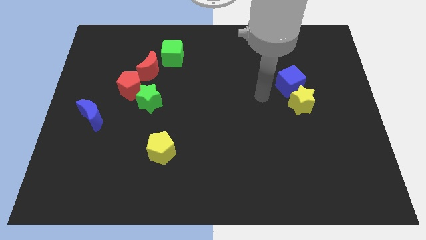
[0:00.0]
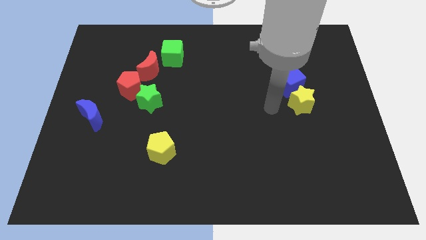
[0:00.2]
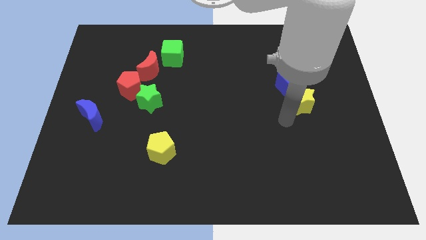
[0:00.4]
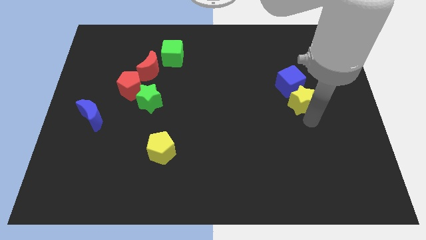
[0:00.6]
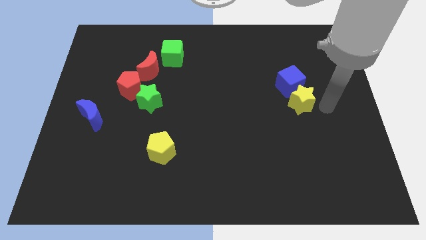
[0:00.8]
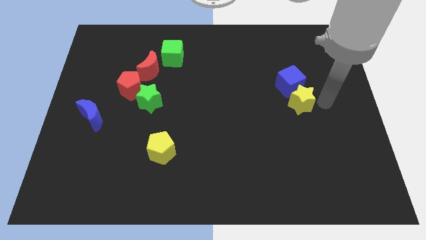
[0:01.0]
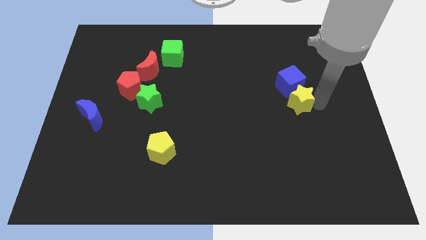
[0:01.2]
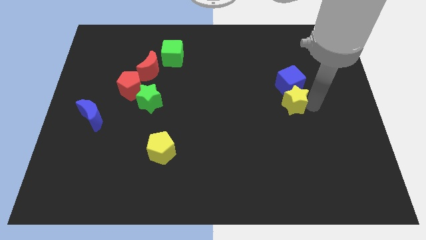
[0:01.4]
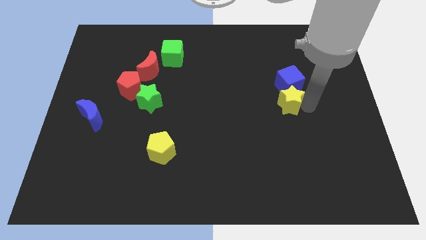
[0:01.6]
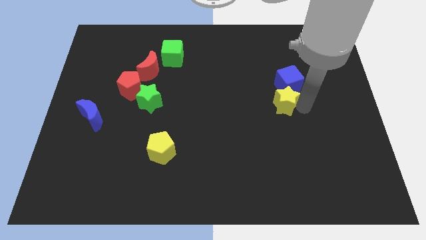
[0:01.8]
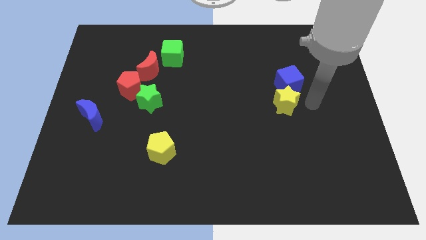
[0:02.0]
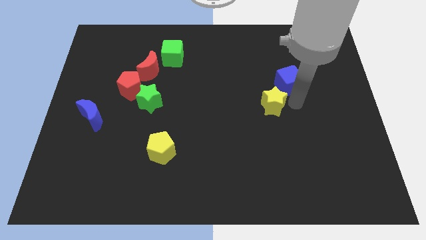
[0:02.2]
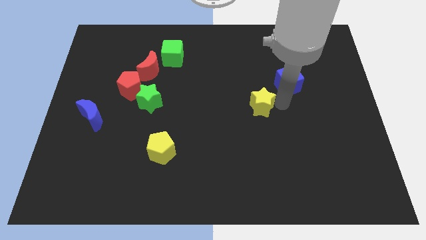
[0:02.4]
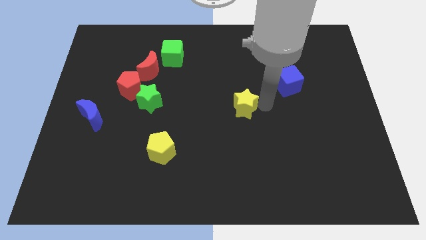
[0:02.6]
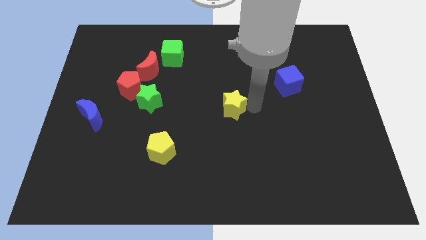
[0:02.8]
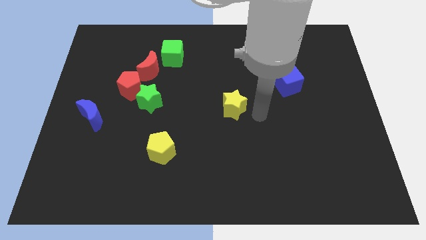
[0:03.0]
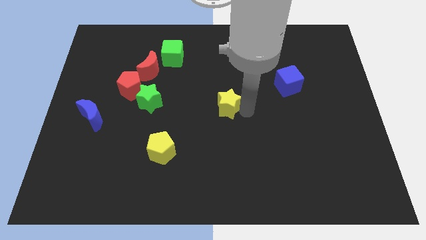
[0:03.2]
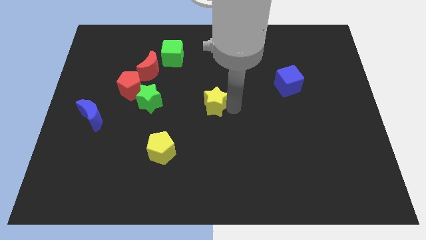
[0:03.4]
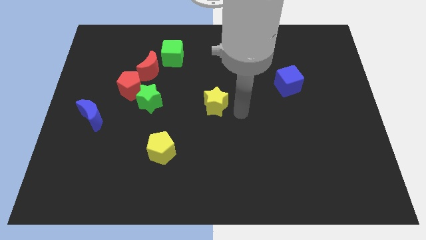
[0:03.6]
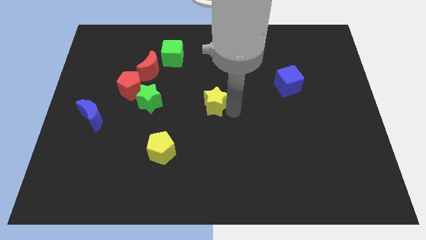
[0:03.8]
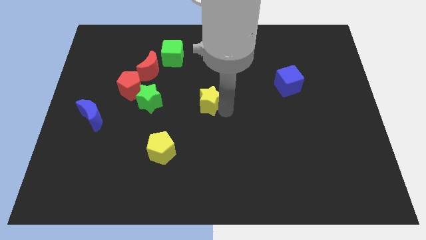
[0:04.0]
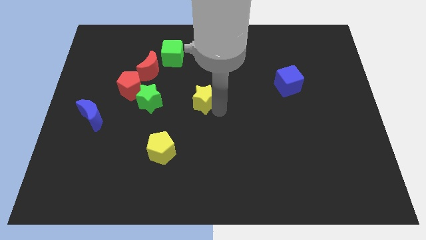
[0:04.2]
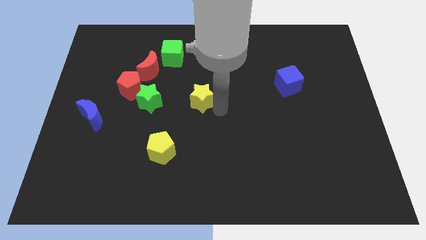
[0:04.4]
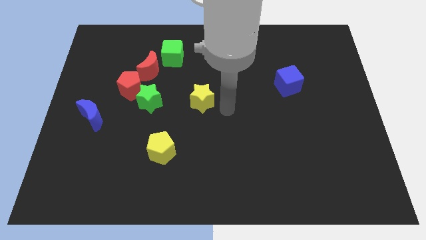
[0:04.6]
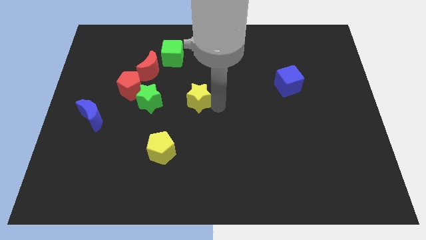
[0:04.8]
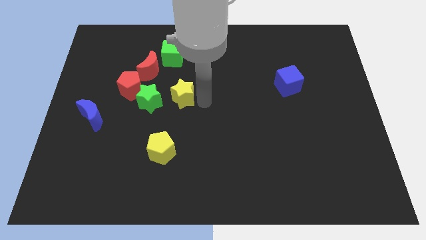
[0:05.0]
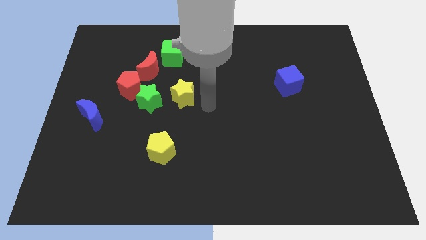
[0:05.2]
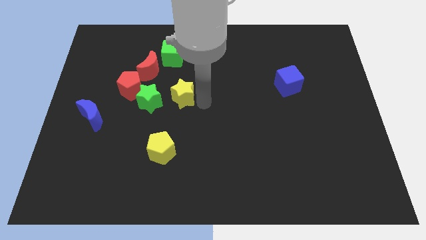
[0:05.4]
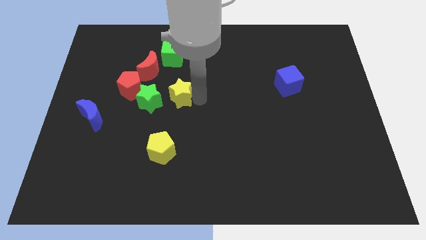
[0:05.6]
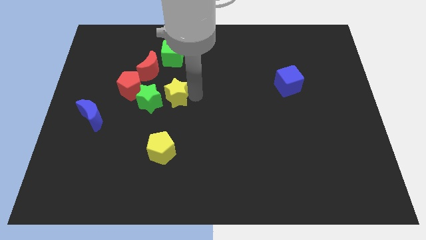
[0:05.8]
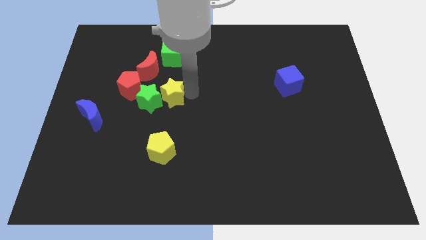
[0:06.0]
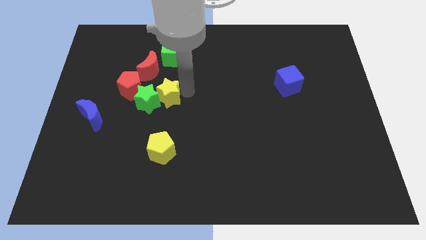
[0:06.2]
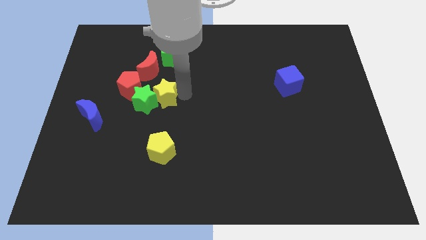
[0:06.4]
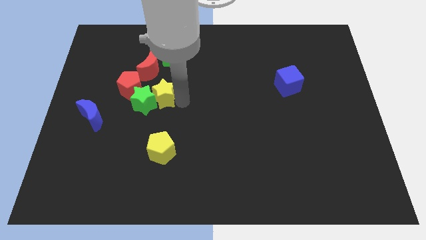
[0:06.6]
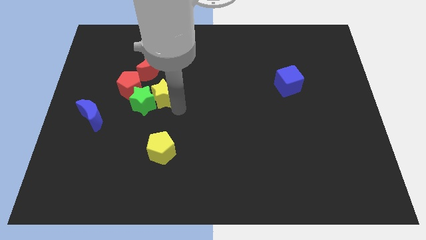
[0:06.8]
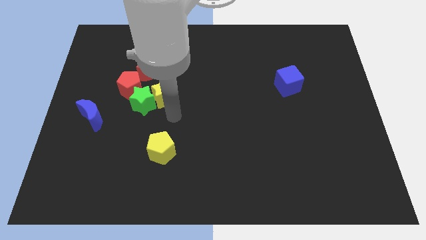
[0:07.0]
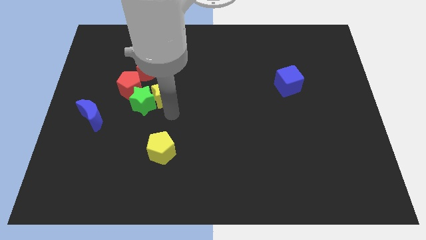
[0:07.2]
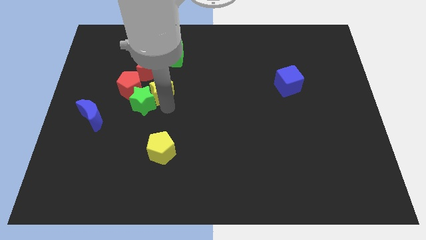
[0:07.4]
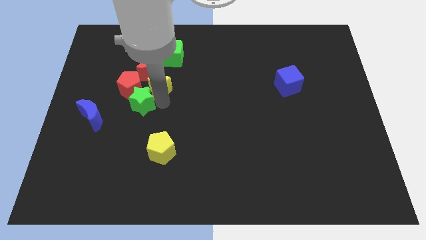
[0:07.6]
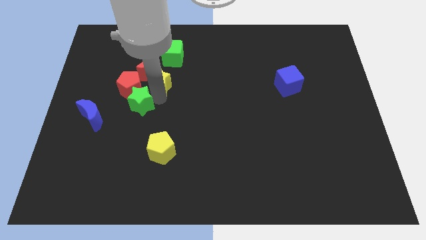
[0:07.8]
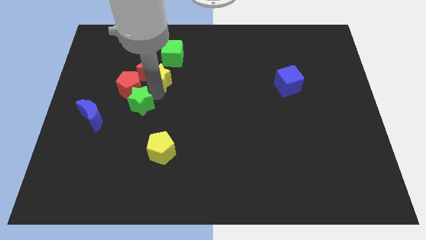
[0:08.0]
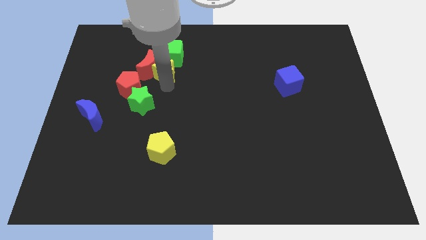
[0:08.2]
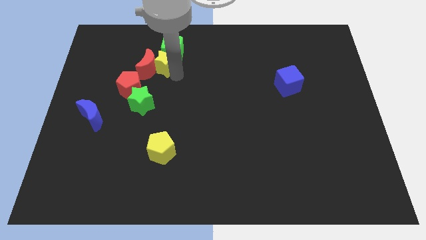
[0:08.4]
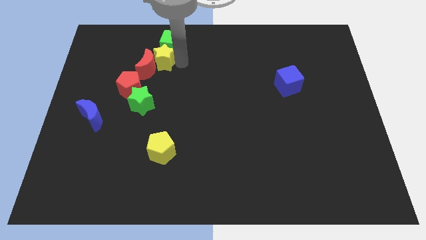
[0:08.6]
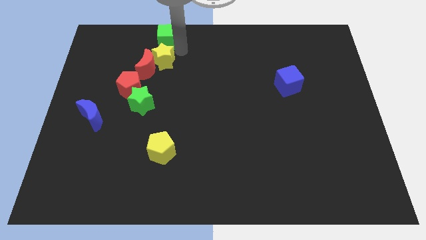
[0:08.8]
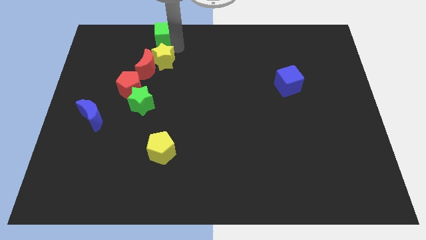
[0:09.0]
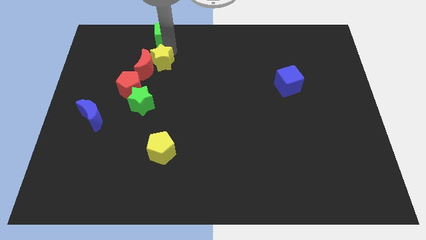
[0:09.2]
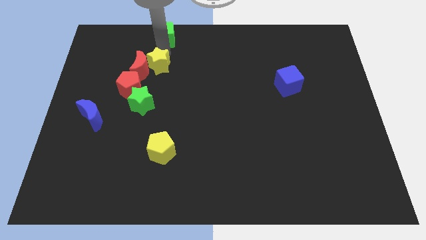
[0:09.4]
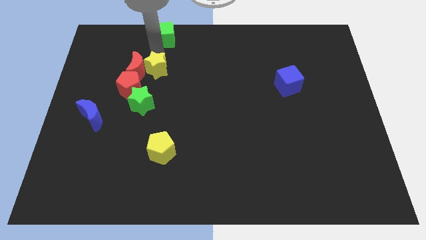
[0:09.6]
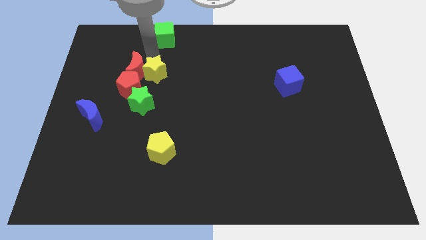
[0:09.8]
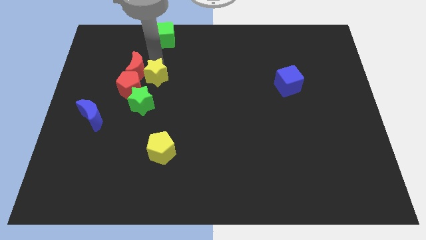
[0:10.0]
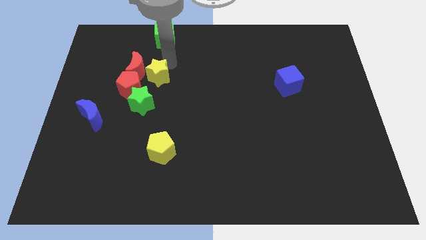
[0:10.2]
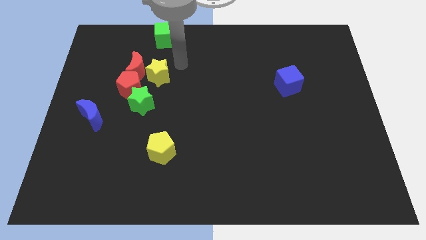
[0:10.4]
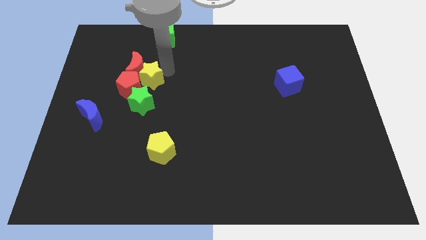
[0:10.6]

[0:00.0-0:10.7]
slide the yellow star next to the red pentagon

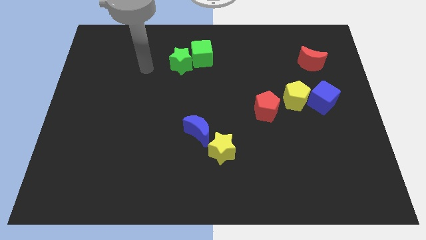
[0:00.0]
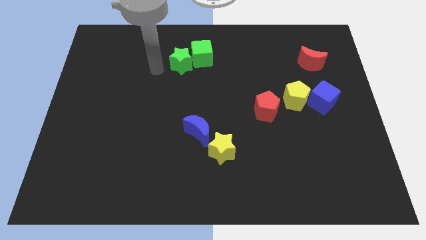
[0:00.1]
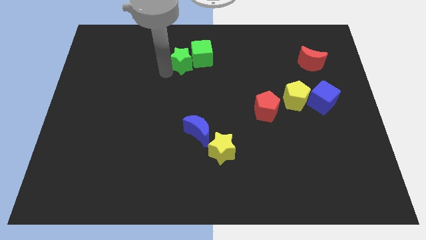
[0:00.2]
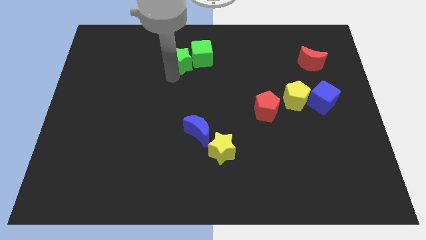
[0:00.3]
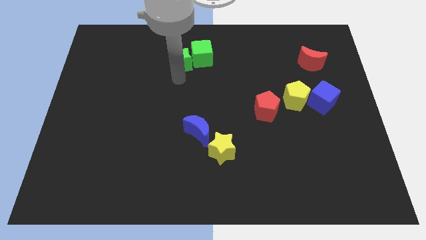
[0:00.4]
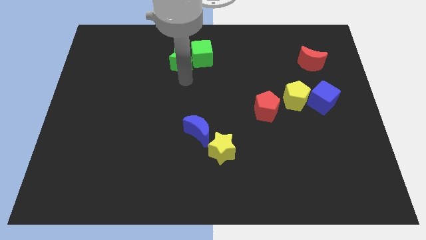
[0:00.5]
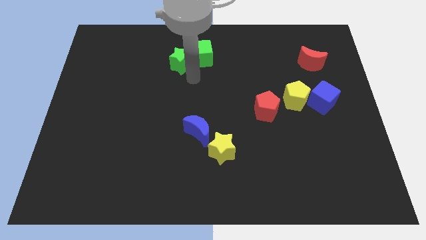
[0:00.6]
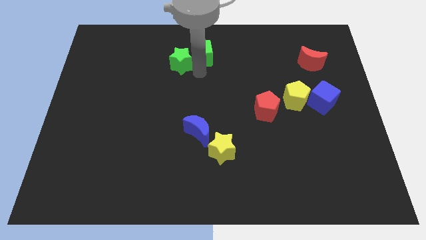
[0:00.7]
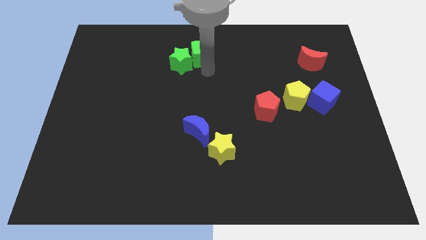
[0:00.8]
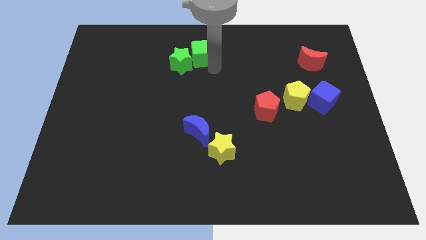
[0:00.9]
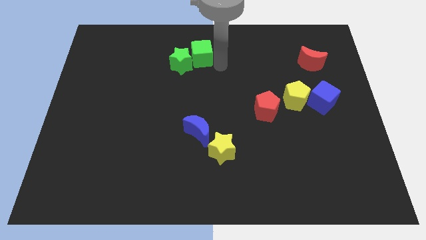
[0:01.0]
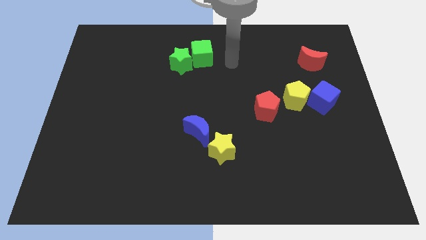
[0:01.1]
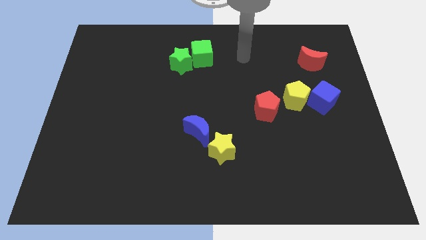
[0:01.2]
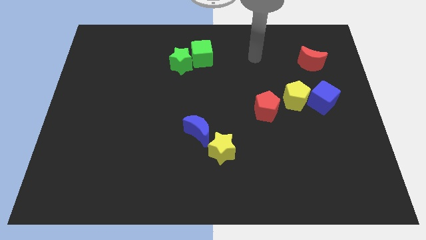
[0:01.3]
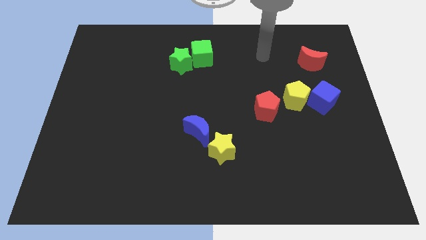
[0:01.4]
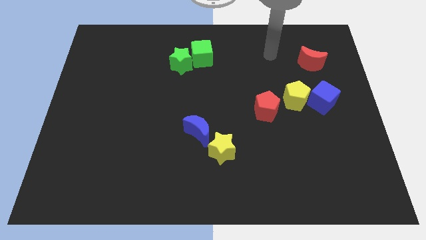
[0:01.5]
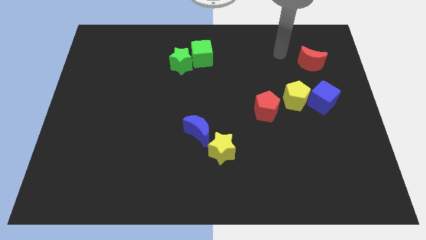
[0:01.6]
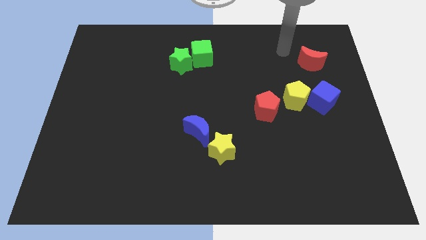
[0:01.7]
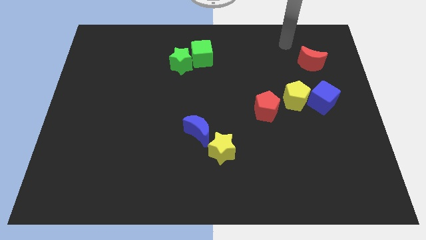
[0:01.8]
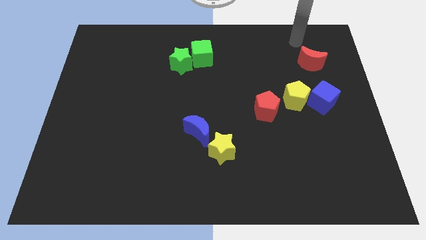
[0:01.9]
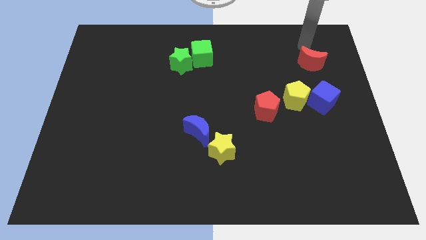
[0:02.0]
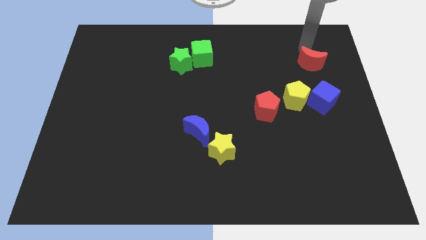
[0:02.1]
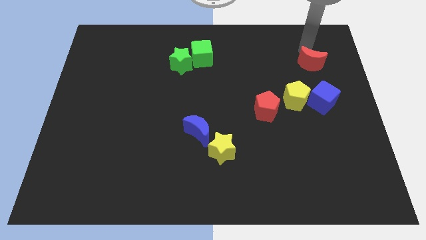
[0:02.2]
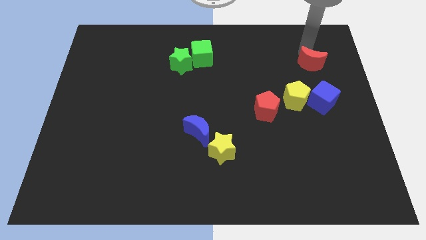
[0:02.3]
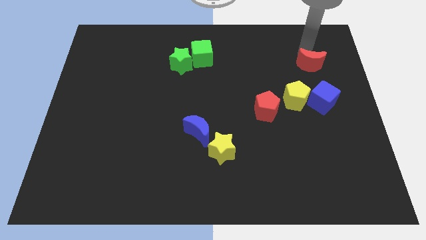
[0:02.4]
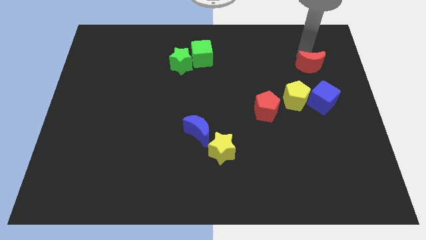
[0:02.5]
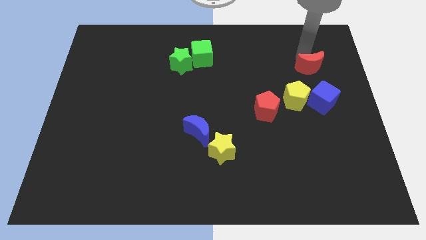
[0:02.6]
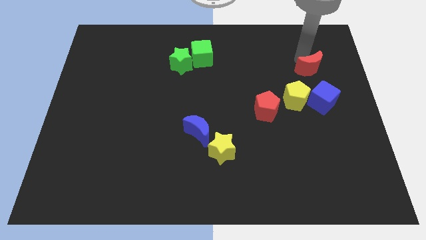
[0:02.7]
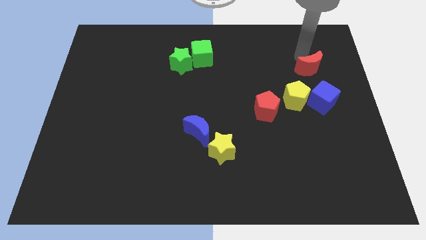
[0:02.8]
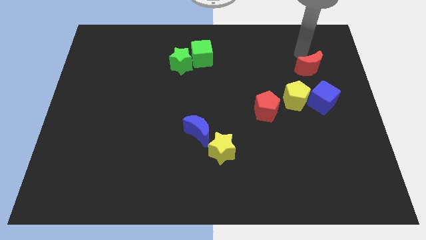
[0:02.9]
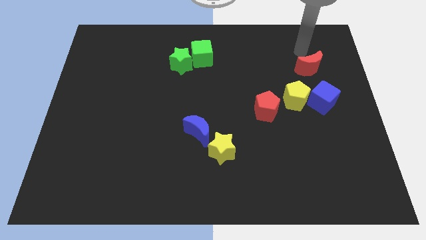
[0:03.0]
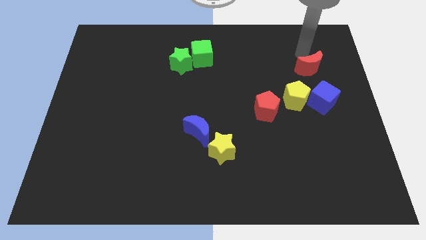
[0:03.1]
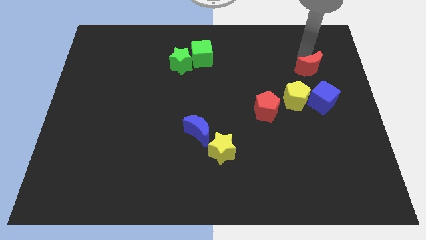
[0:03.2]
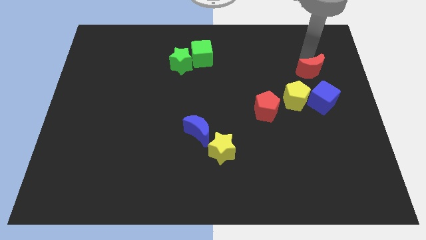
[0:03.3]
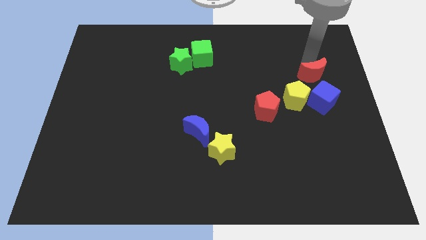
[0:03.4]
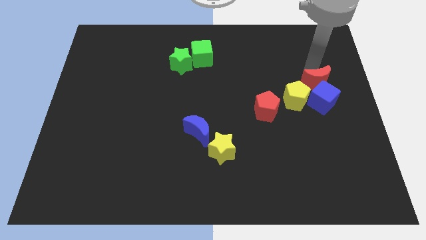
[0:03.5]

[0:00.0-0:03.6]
push the red moon towards the blue cube
